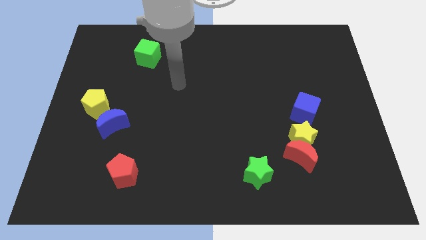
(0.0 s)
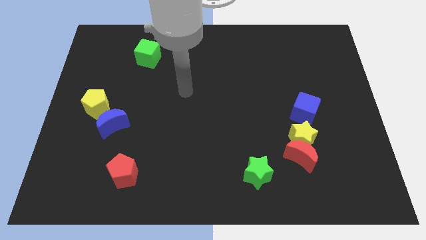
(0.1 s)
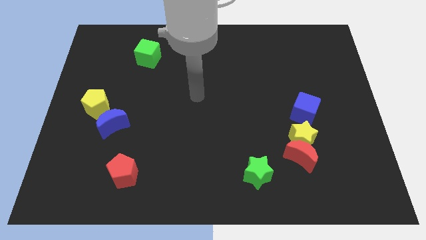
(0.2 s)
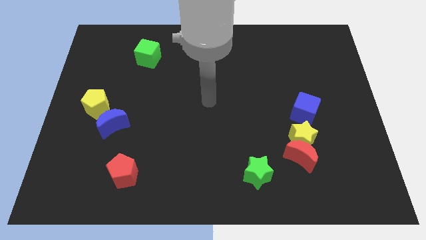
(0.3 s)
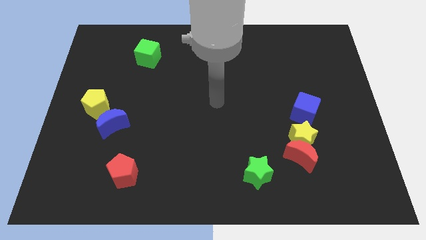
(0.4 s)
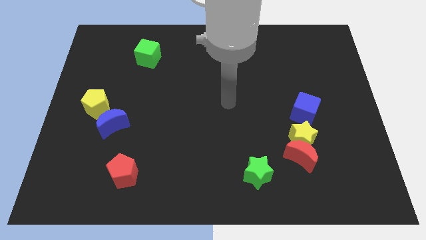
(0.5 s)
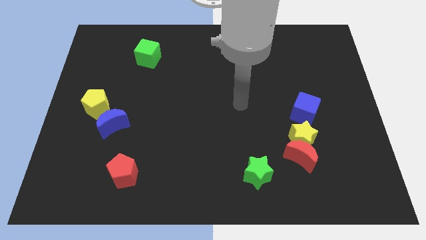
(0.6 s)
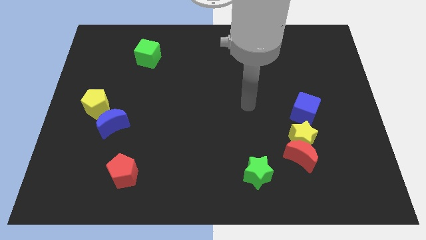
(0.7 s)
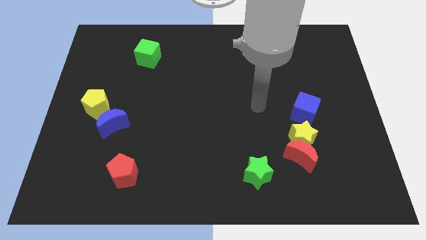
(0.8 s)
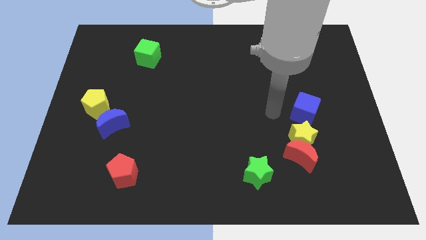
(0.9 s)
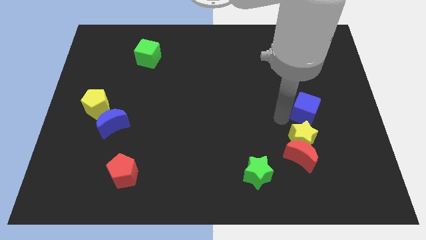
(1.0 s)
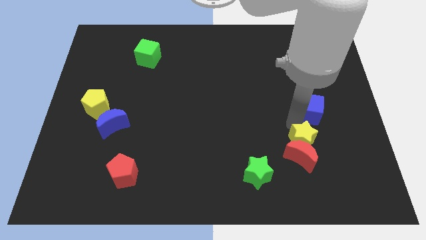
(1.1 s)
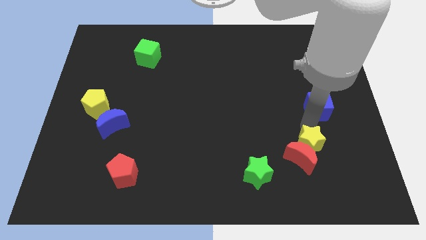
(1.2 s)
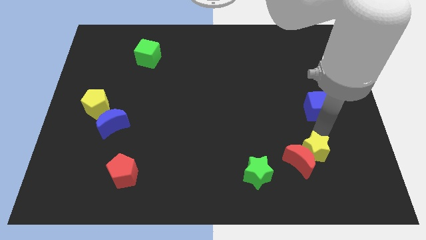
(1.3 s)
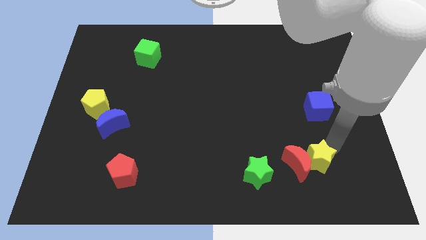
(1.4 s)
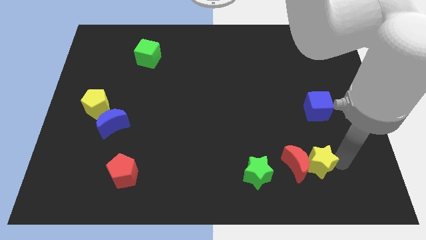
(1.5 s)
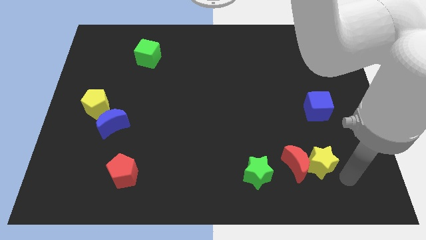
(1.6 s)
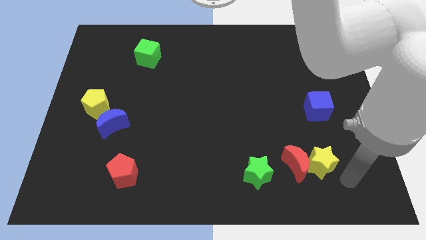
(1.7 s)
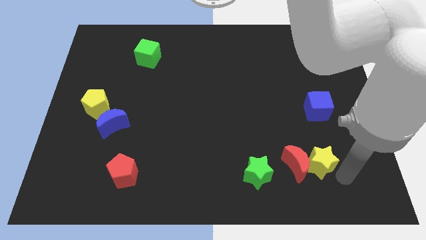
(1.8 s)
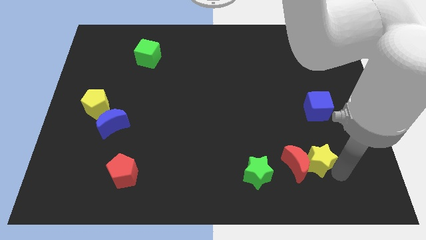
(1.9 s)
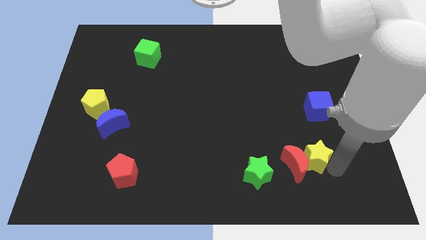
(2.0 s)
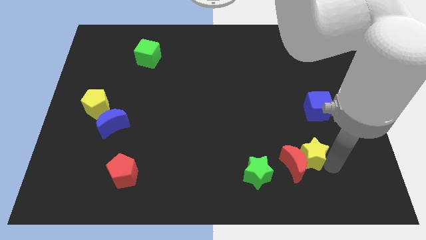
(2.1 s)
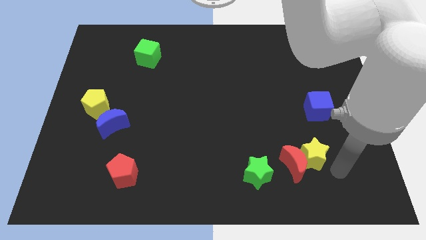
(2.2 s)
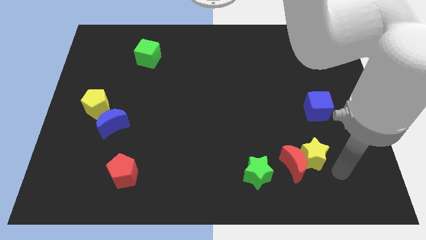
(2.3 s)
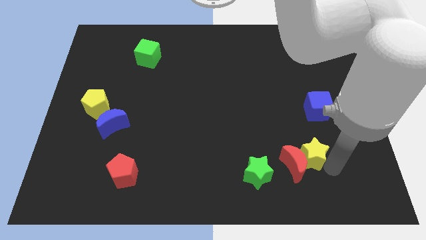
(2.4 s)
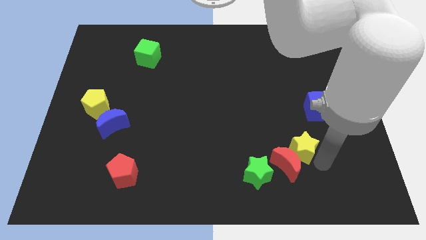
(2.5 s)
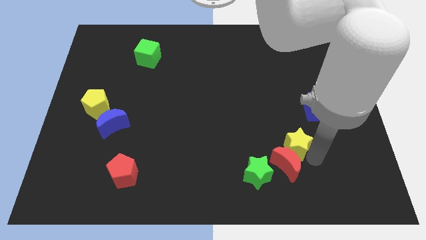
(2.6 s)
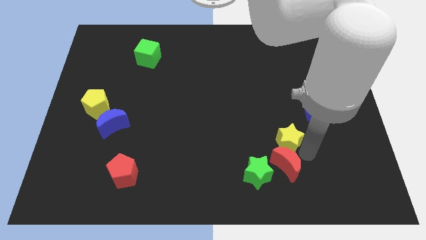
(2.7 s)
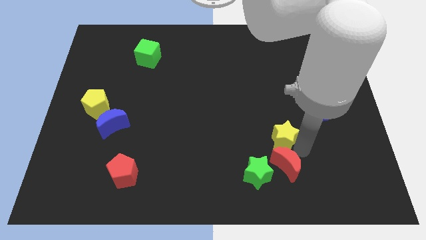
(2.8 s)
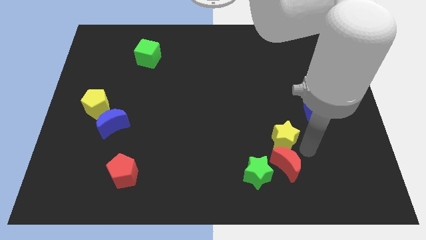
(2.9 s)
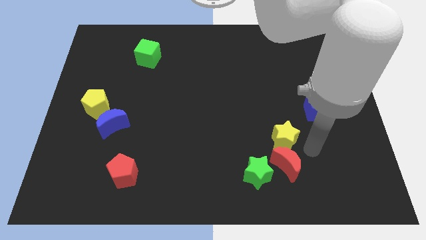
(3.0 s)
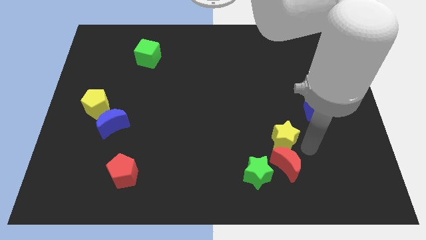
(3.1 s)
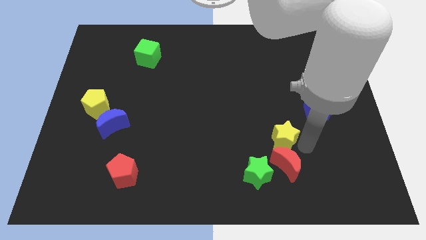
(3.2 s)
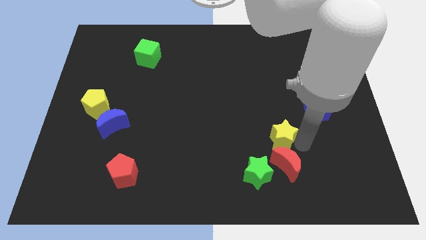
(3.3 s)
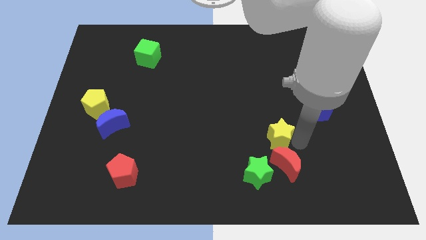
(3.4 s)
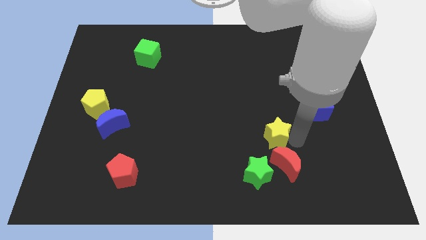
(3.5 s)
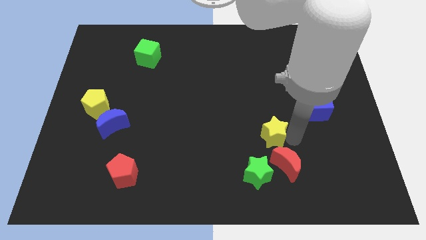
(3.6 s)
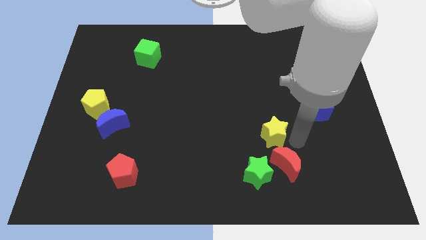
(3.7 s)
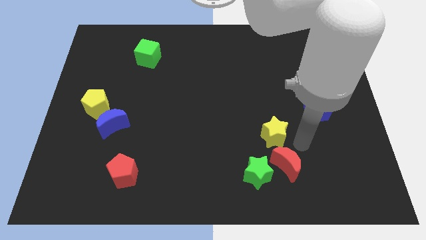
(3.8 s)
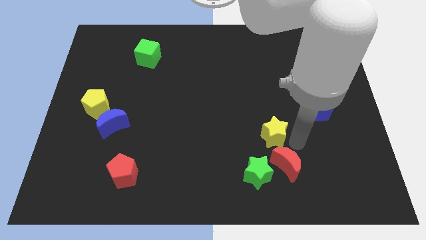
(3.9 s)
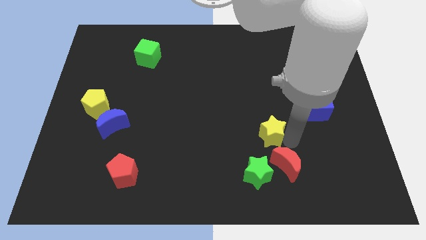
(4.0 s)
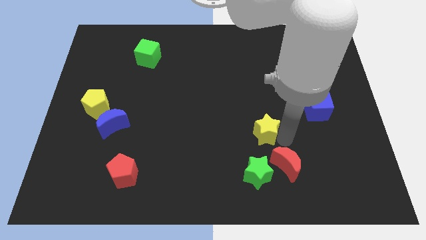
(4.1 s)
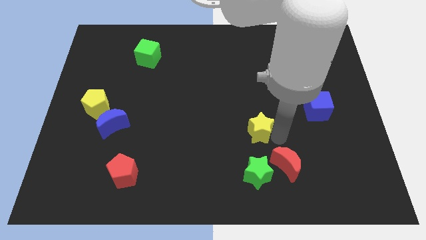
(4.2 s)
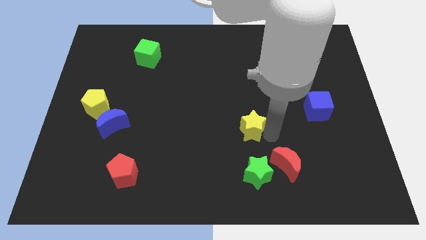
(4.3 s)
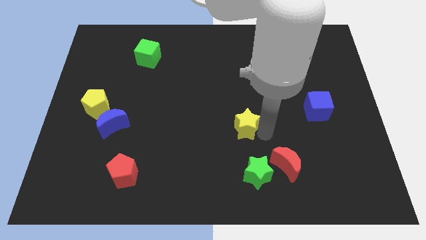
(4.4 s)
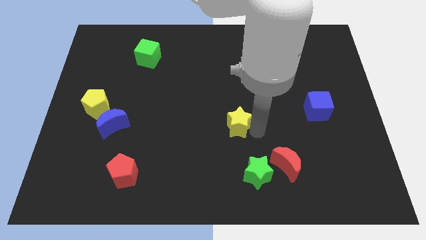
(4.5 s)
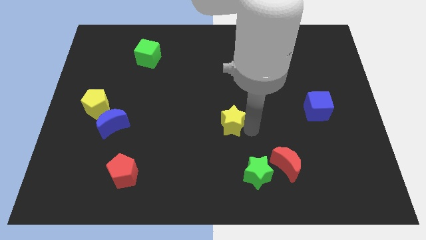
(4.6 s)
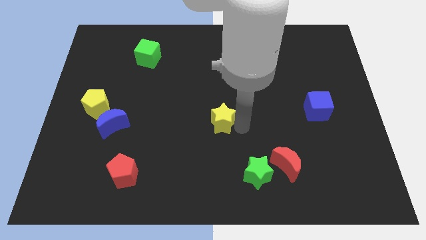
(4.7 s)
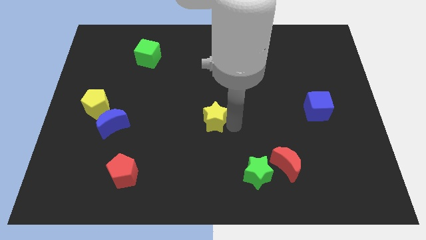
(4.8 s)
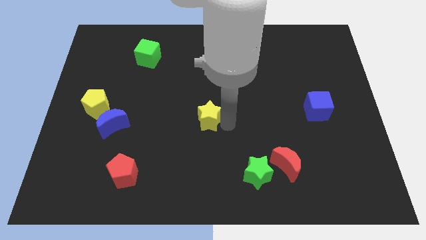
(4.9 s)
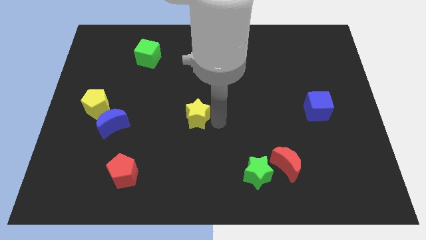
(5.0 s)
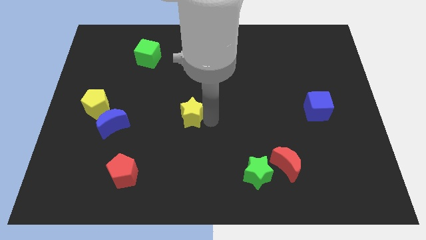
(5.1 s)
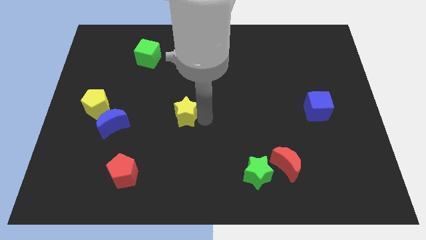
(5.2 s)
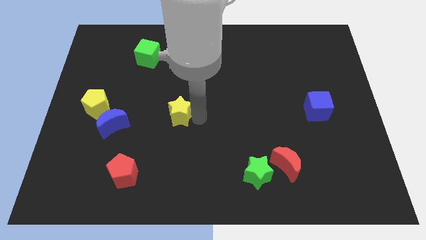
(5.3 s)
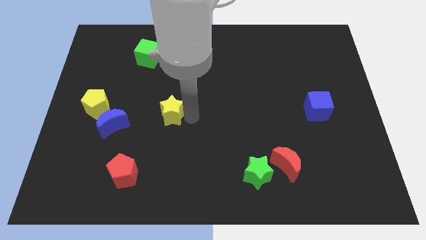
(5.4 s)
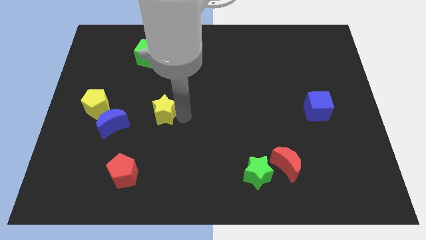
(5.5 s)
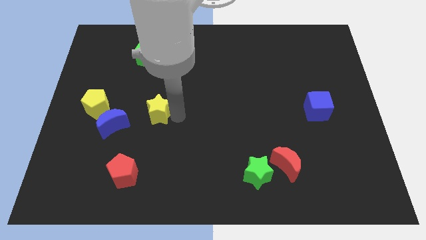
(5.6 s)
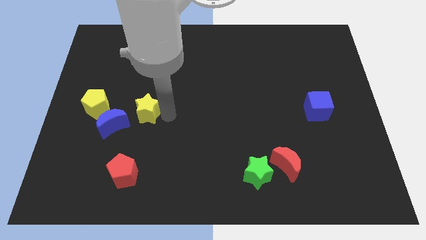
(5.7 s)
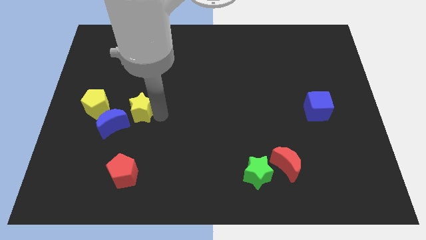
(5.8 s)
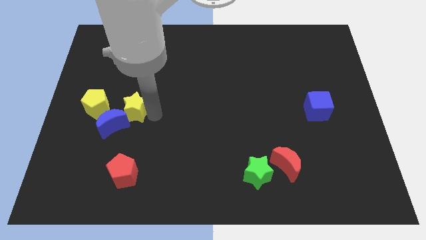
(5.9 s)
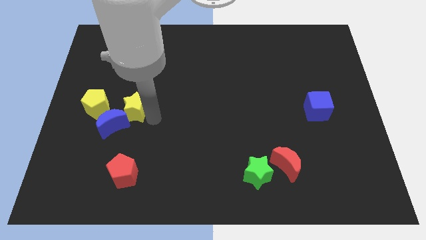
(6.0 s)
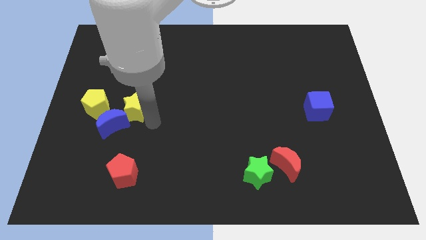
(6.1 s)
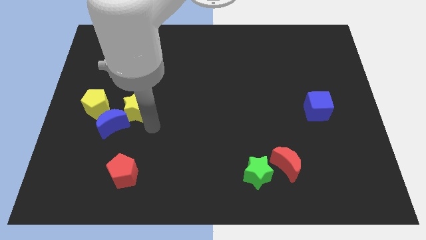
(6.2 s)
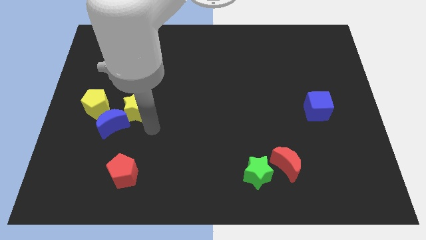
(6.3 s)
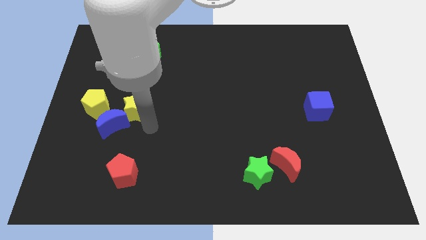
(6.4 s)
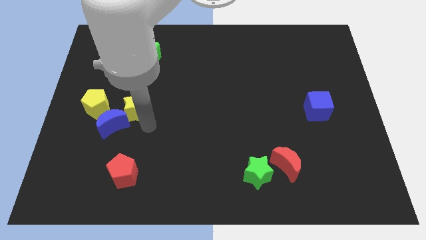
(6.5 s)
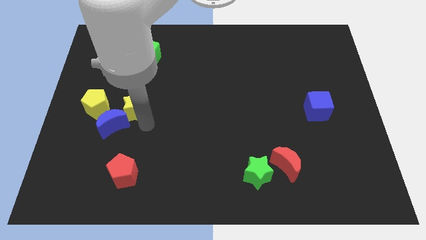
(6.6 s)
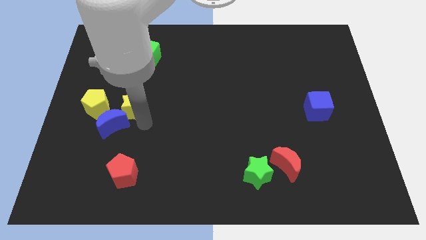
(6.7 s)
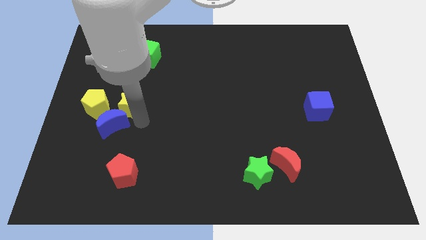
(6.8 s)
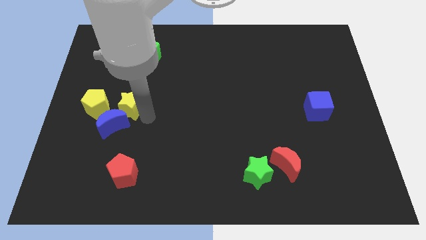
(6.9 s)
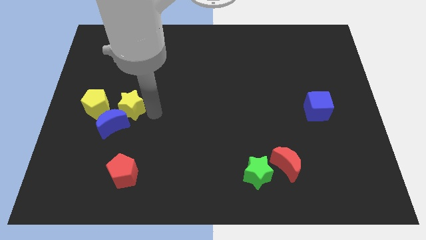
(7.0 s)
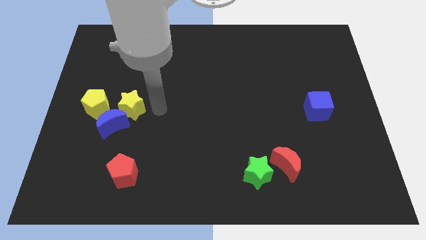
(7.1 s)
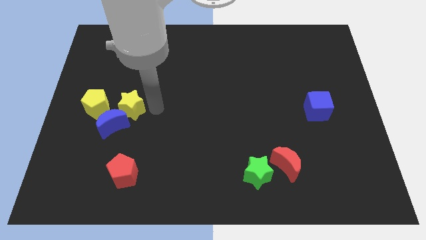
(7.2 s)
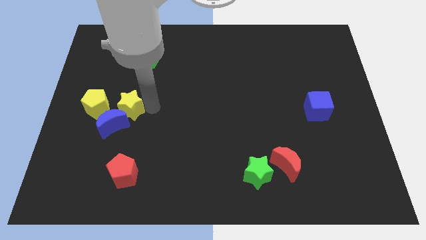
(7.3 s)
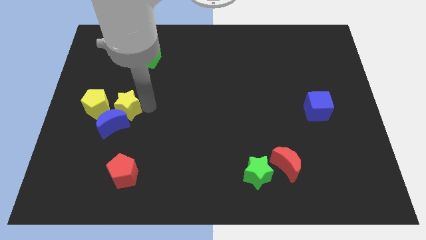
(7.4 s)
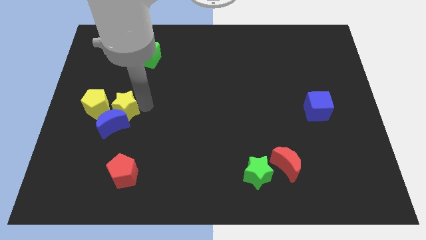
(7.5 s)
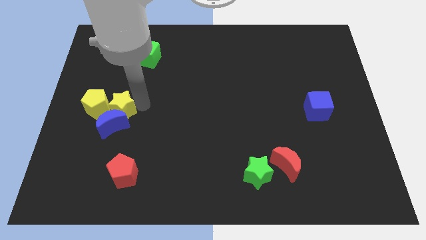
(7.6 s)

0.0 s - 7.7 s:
put the yellow star to the yellow pentagon
